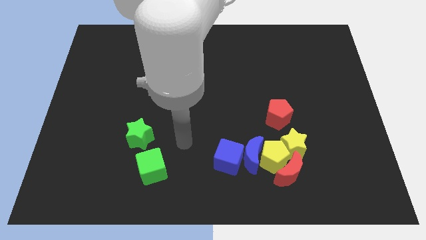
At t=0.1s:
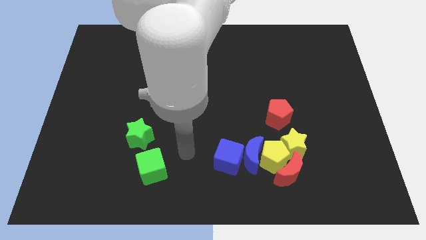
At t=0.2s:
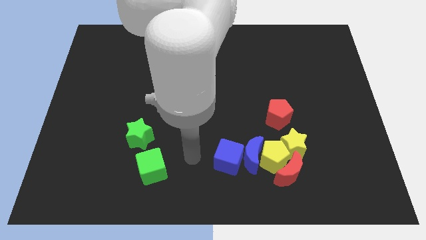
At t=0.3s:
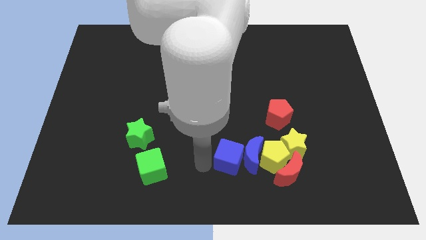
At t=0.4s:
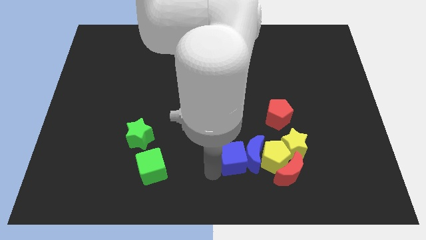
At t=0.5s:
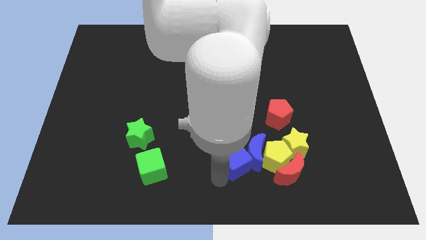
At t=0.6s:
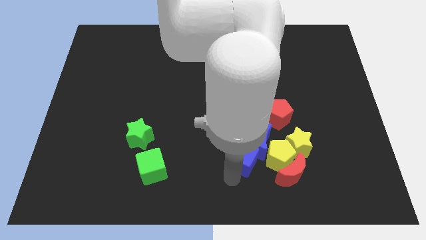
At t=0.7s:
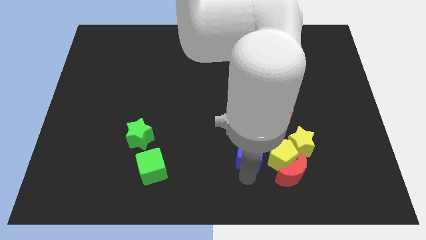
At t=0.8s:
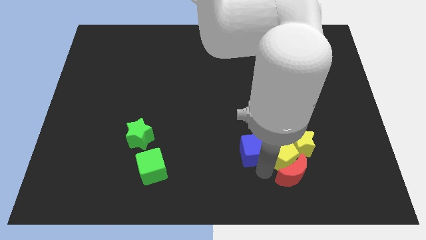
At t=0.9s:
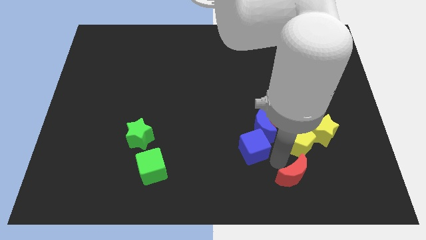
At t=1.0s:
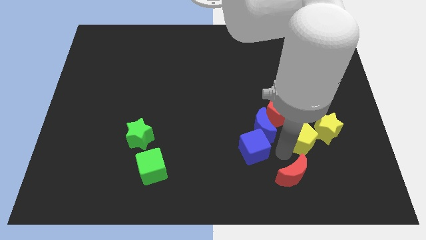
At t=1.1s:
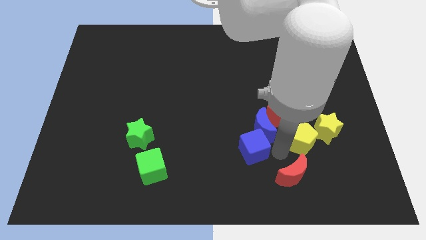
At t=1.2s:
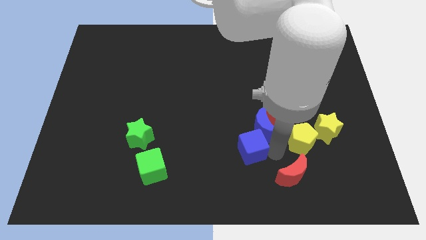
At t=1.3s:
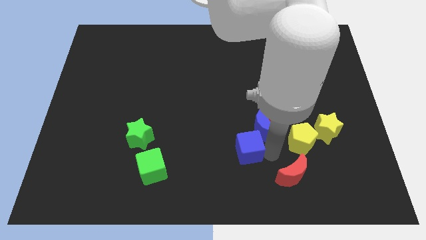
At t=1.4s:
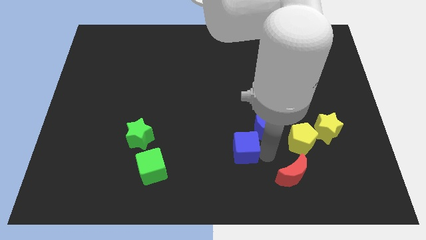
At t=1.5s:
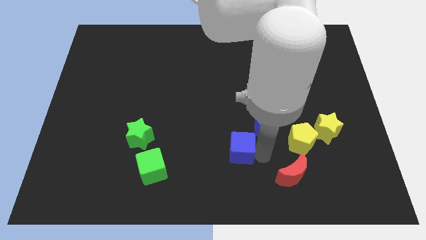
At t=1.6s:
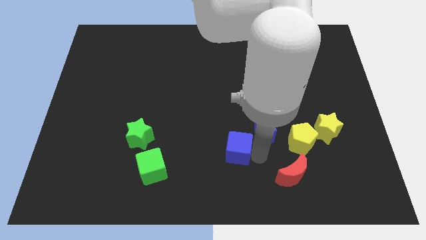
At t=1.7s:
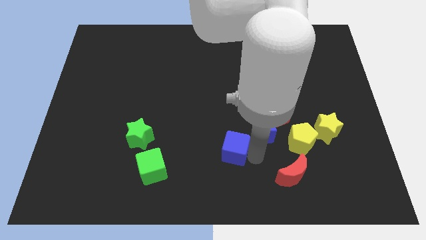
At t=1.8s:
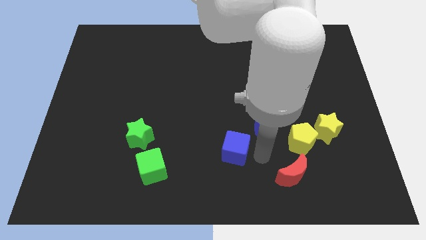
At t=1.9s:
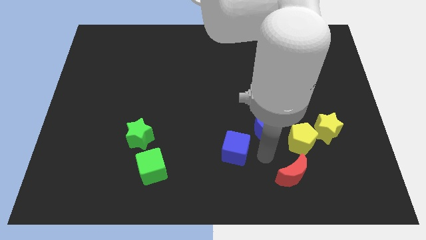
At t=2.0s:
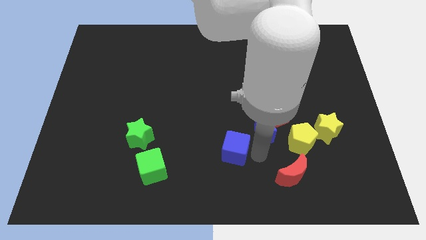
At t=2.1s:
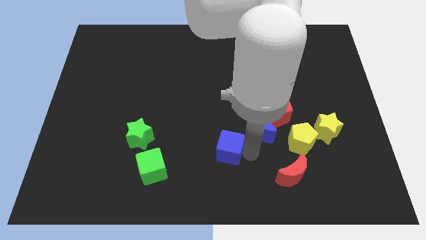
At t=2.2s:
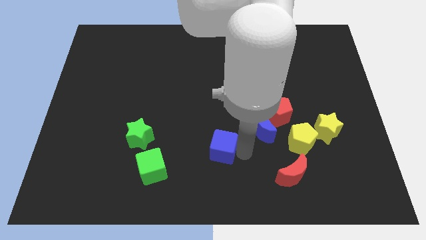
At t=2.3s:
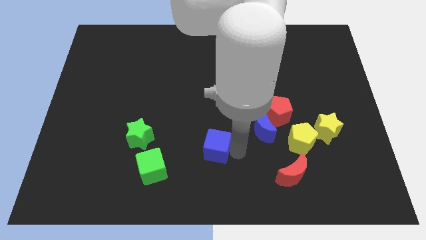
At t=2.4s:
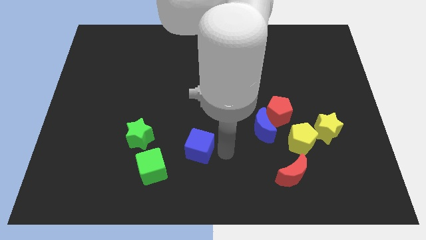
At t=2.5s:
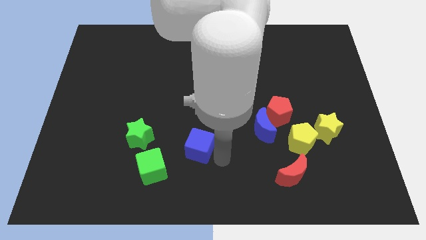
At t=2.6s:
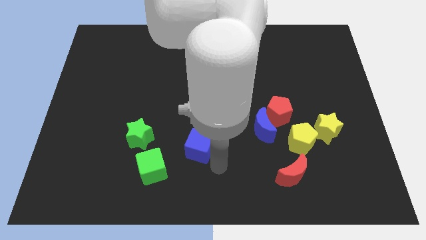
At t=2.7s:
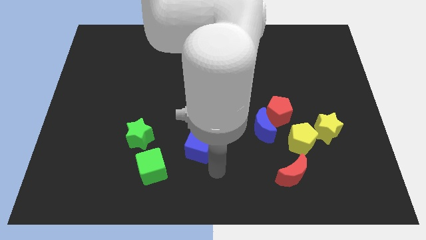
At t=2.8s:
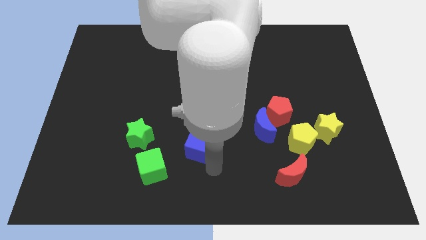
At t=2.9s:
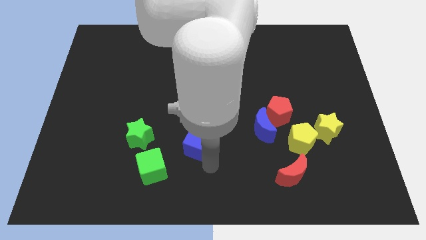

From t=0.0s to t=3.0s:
slide the blue cube diagonally upwards and to the left a bit

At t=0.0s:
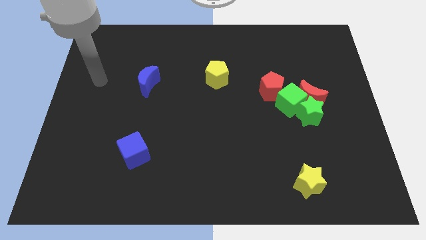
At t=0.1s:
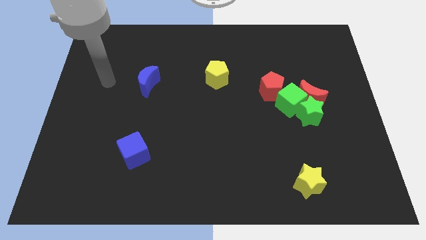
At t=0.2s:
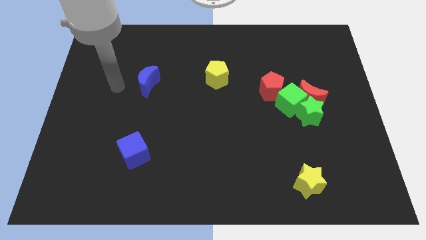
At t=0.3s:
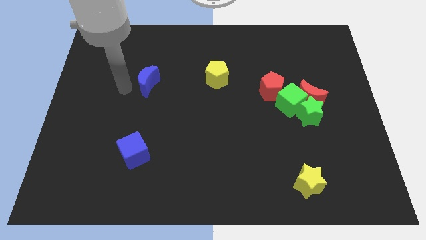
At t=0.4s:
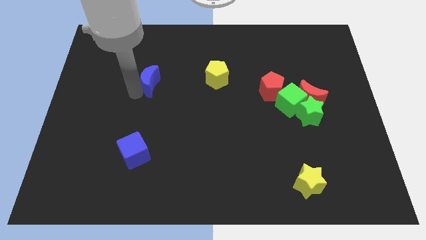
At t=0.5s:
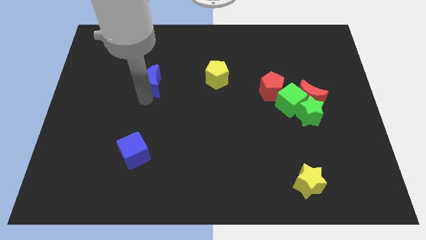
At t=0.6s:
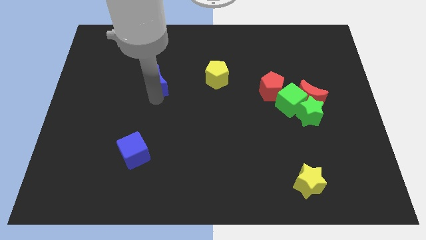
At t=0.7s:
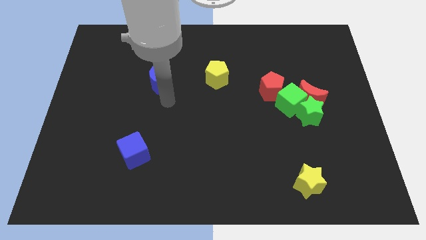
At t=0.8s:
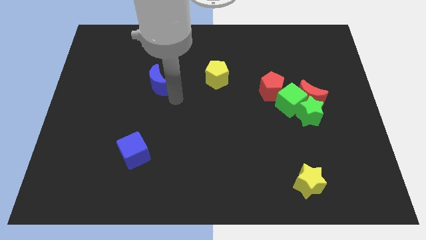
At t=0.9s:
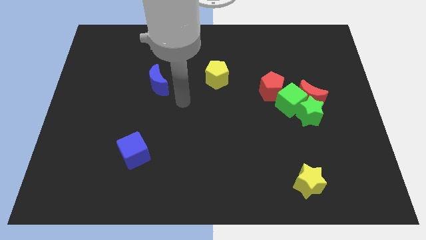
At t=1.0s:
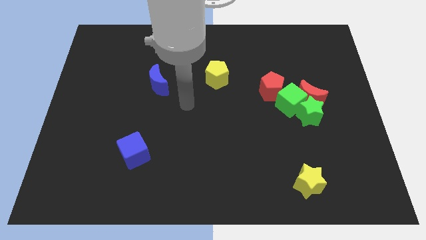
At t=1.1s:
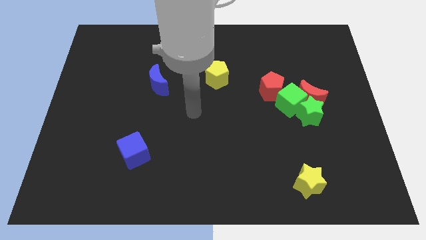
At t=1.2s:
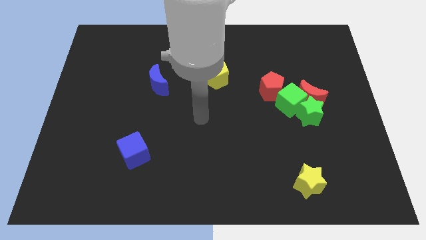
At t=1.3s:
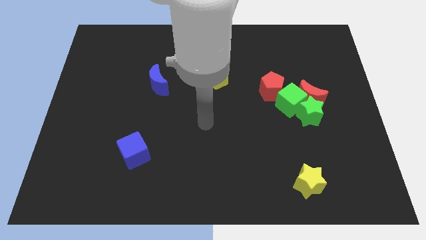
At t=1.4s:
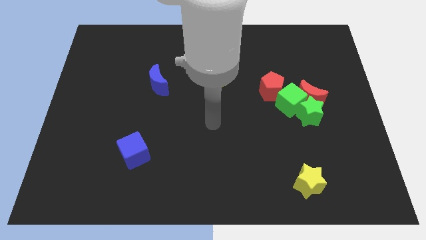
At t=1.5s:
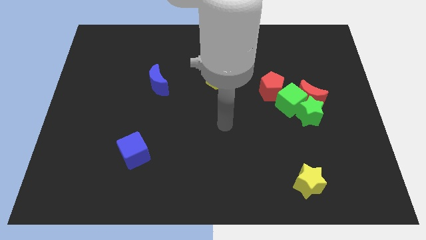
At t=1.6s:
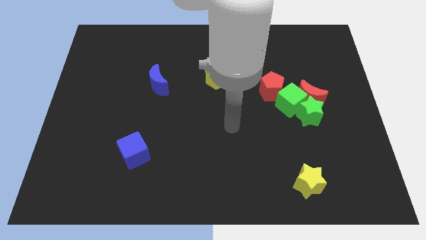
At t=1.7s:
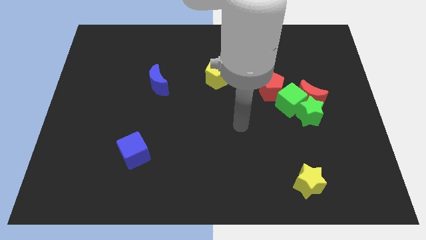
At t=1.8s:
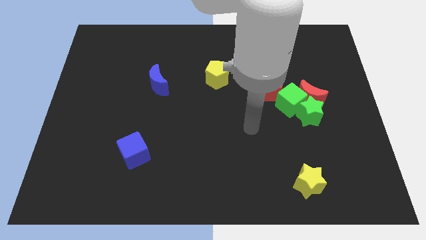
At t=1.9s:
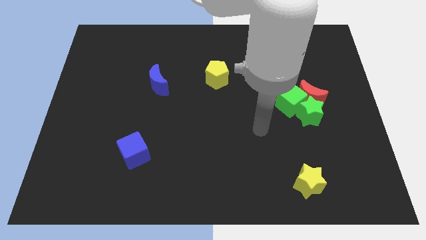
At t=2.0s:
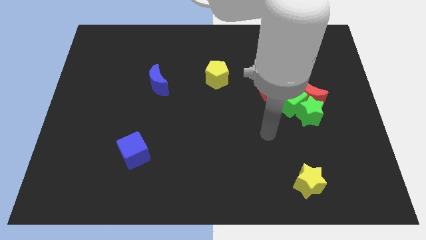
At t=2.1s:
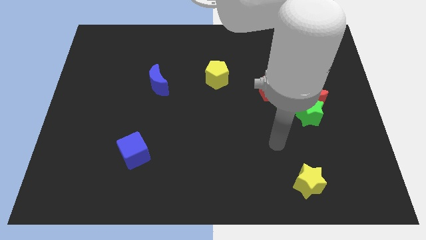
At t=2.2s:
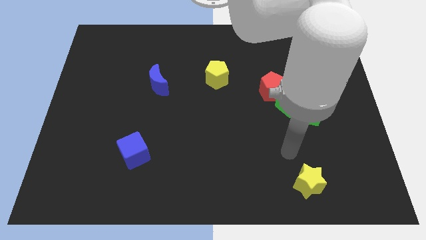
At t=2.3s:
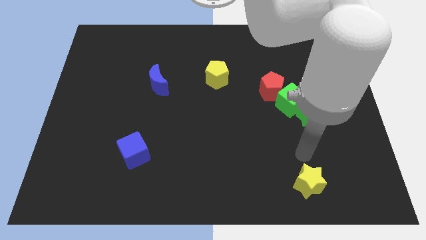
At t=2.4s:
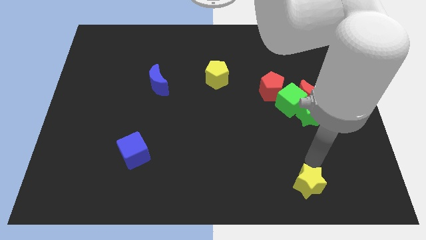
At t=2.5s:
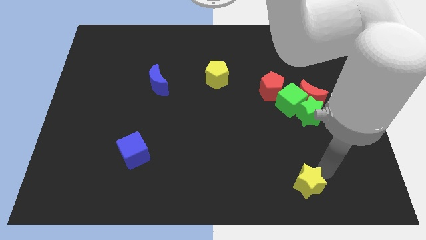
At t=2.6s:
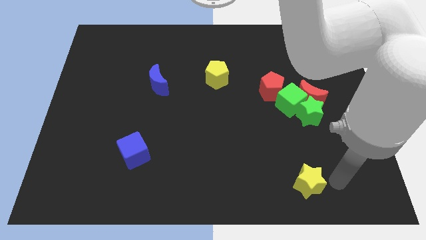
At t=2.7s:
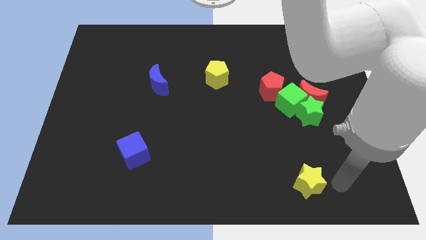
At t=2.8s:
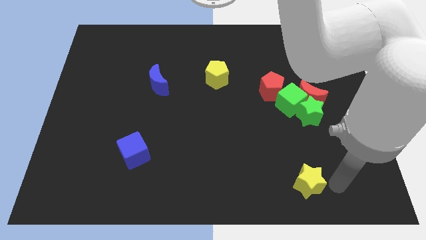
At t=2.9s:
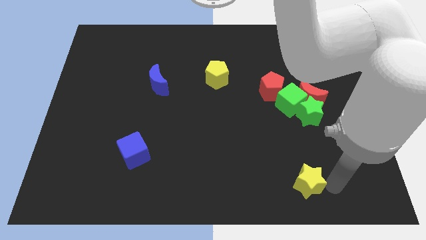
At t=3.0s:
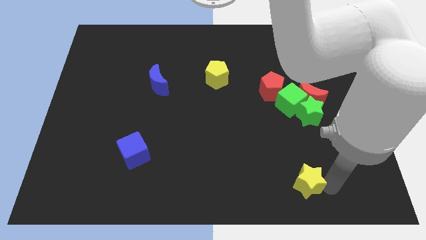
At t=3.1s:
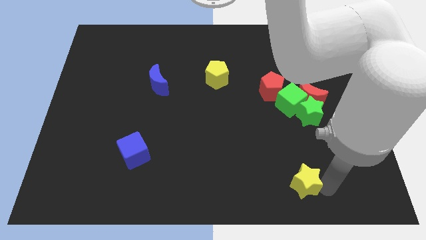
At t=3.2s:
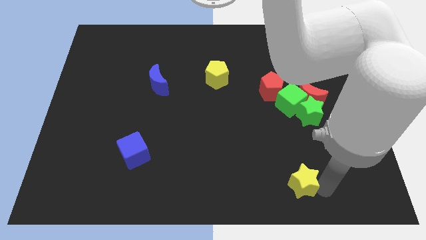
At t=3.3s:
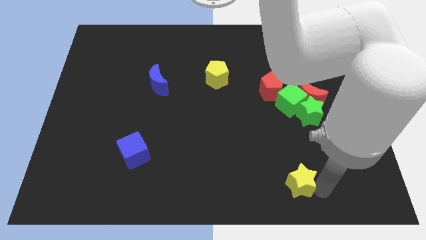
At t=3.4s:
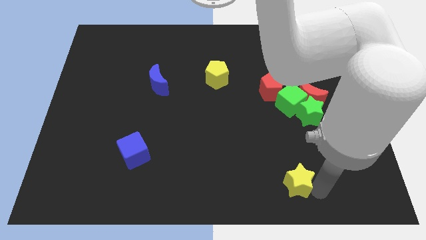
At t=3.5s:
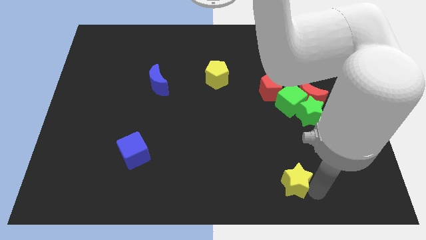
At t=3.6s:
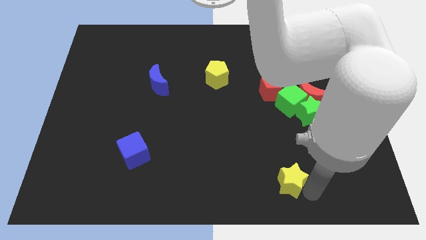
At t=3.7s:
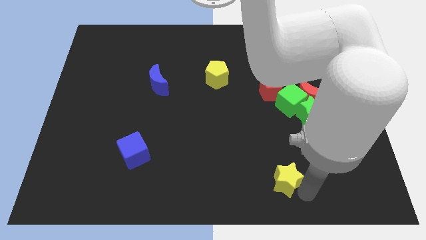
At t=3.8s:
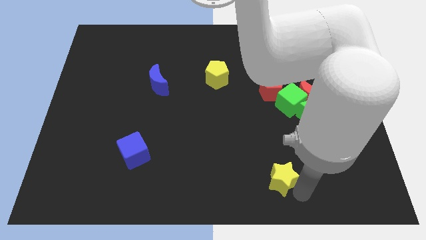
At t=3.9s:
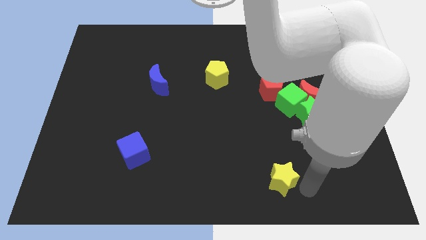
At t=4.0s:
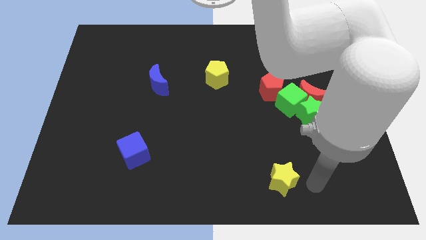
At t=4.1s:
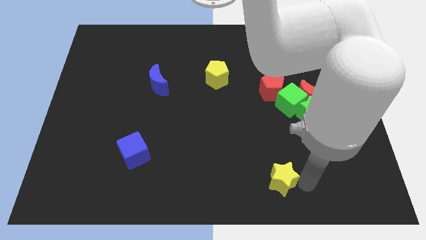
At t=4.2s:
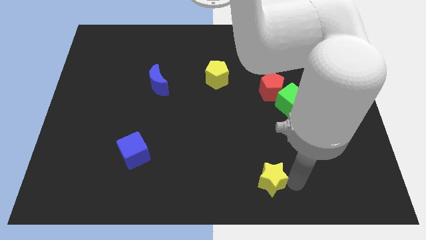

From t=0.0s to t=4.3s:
push the yellow star a bit left

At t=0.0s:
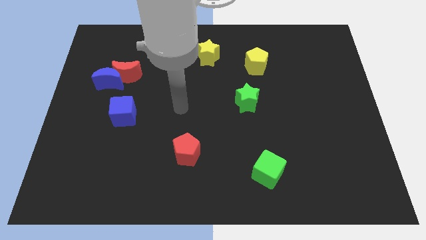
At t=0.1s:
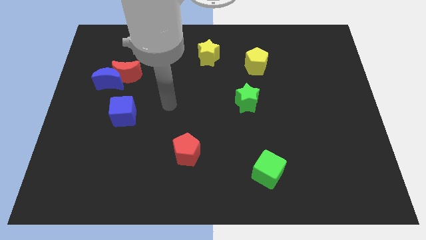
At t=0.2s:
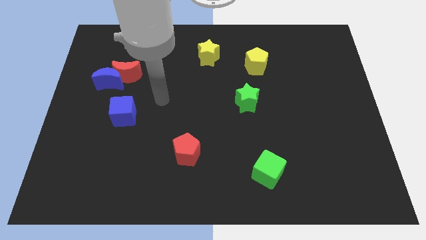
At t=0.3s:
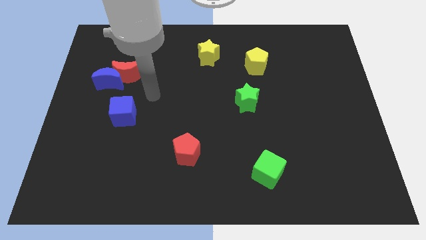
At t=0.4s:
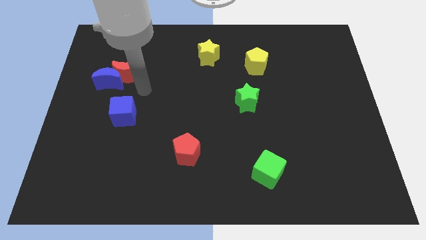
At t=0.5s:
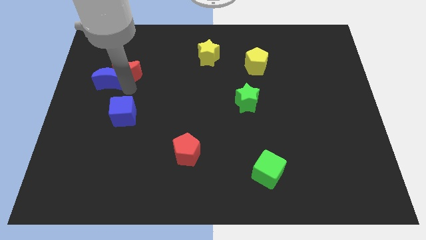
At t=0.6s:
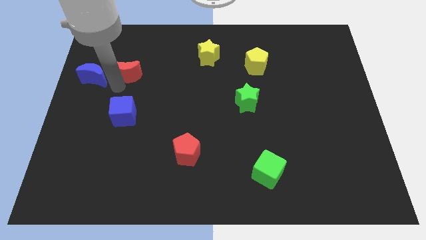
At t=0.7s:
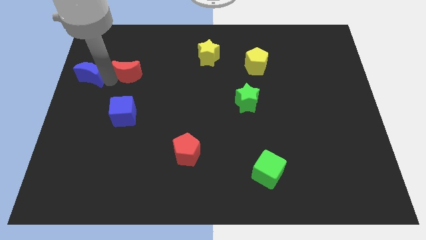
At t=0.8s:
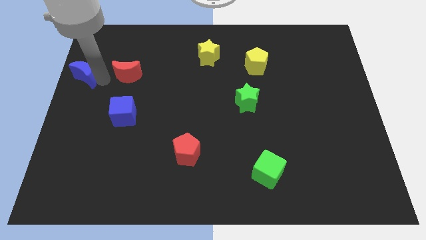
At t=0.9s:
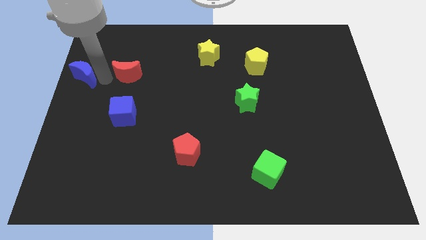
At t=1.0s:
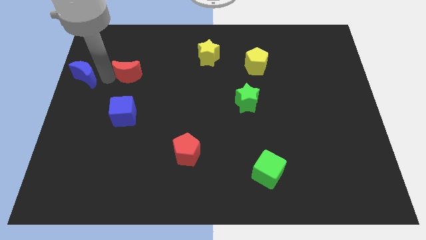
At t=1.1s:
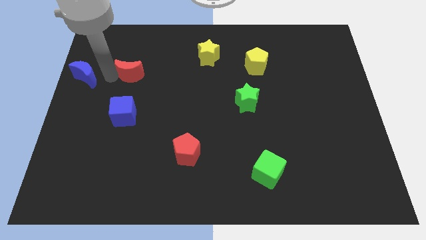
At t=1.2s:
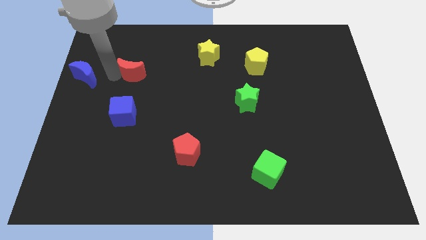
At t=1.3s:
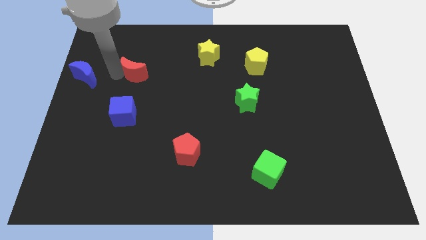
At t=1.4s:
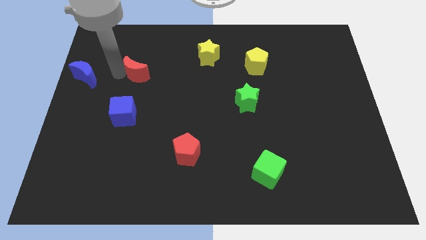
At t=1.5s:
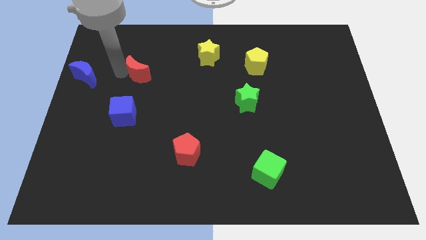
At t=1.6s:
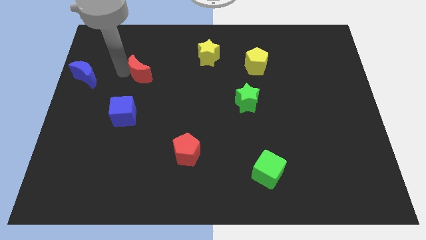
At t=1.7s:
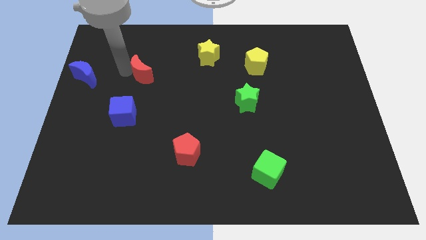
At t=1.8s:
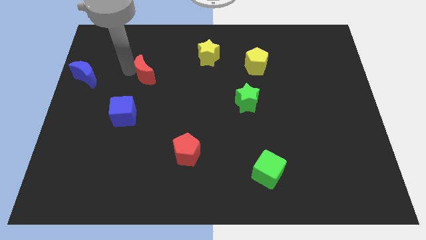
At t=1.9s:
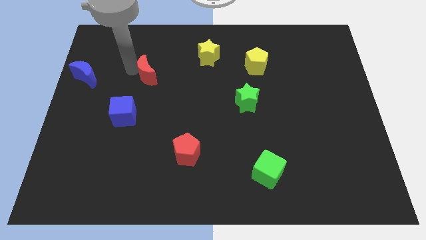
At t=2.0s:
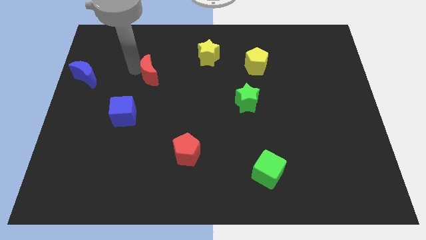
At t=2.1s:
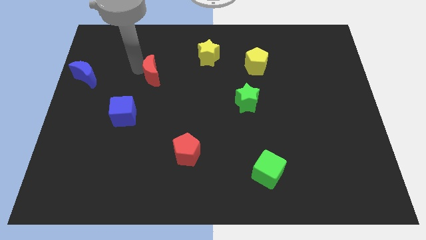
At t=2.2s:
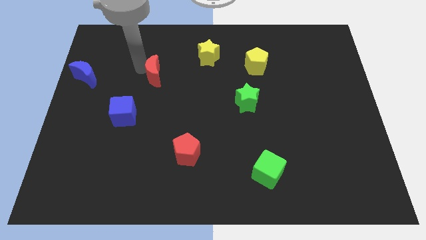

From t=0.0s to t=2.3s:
slightly push the red moon right
